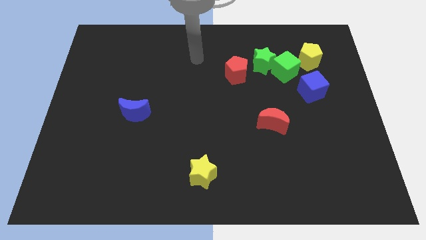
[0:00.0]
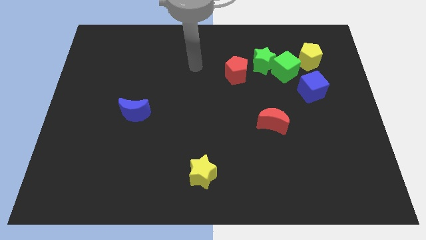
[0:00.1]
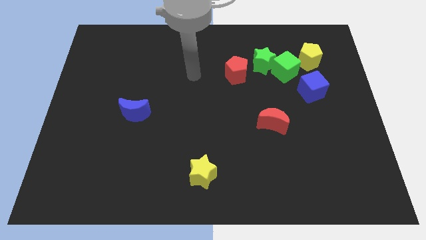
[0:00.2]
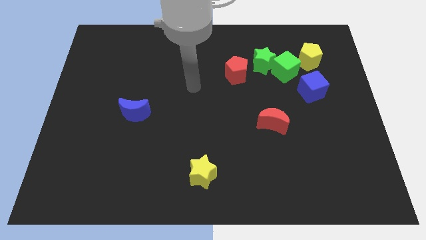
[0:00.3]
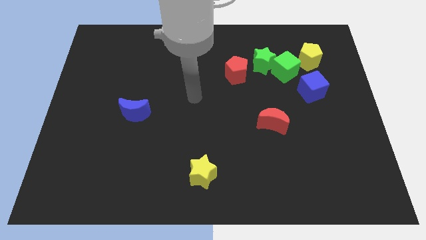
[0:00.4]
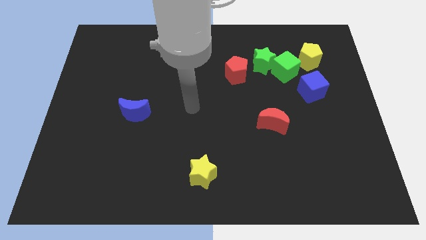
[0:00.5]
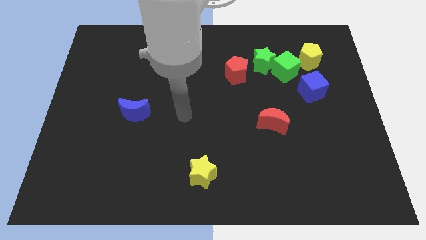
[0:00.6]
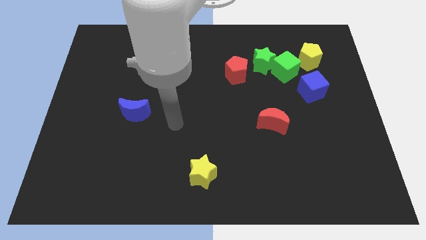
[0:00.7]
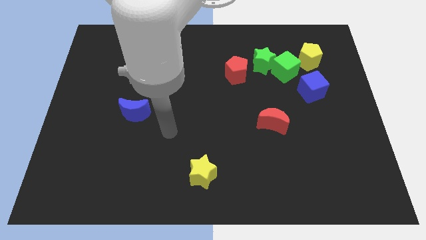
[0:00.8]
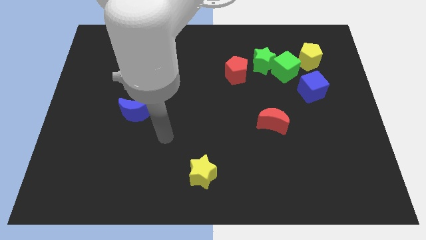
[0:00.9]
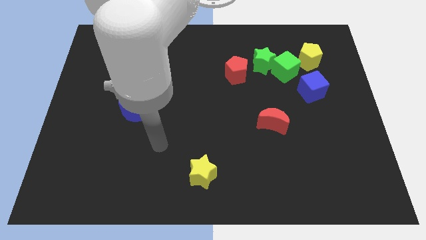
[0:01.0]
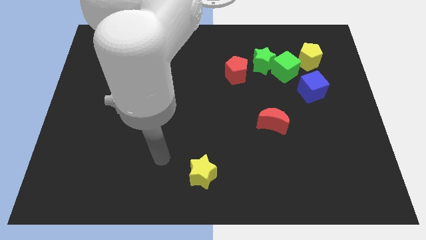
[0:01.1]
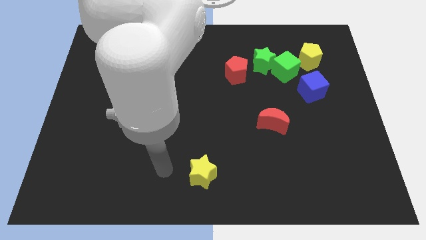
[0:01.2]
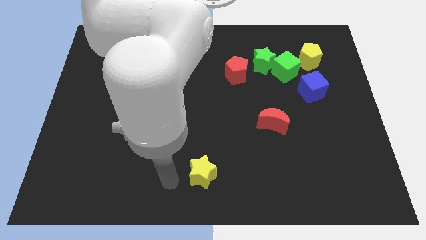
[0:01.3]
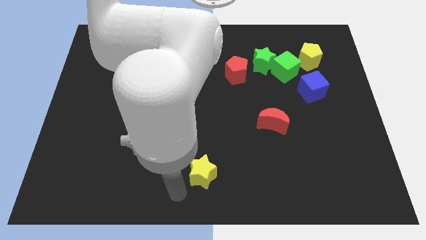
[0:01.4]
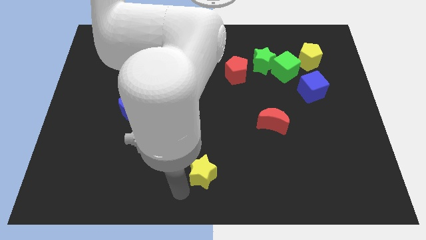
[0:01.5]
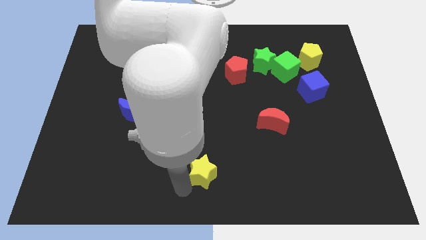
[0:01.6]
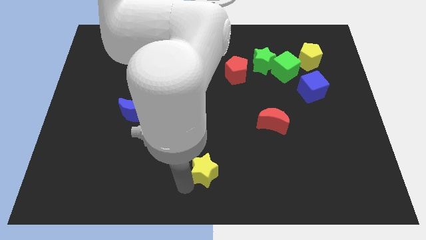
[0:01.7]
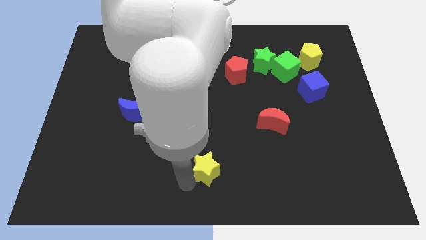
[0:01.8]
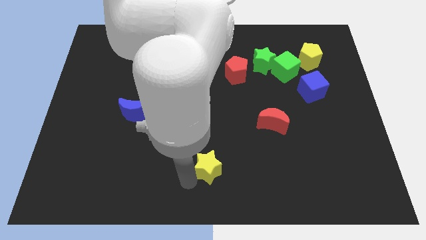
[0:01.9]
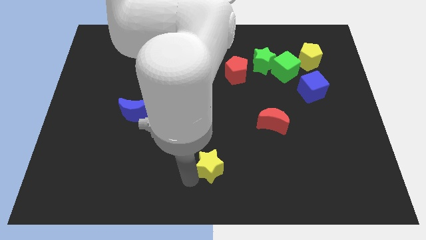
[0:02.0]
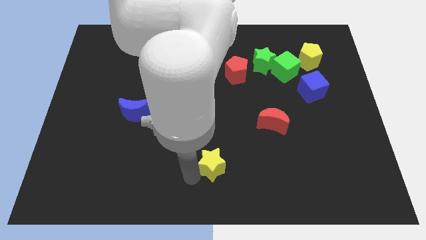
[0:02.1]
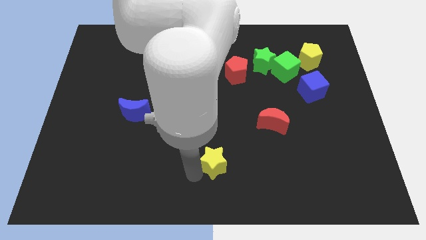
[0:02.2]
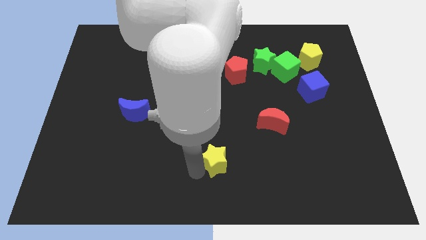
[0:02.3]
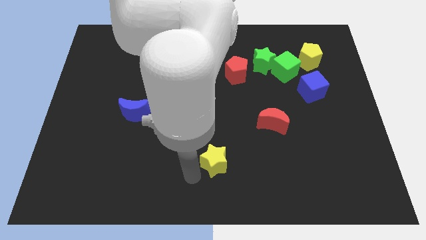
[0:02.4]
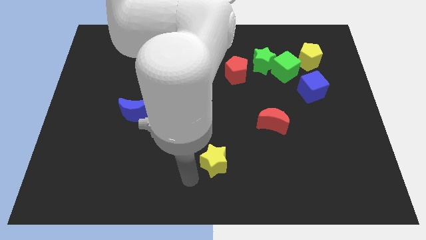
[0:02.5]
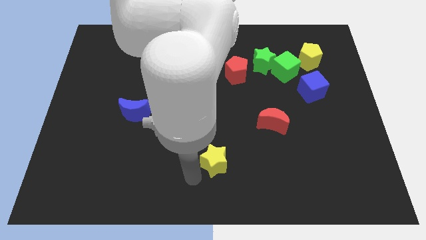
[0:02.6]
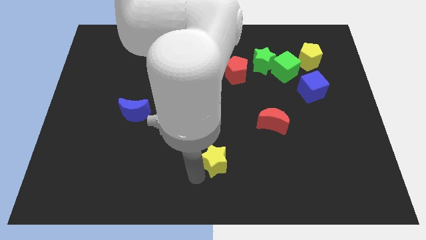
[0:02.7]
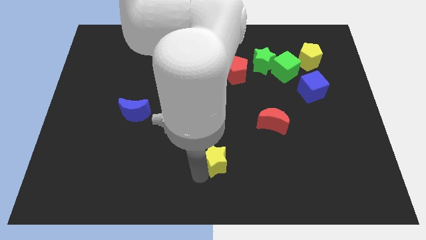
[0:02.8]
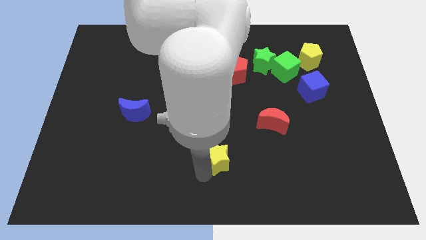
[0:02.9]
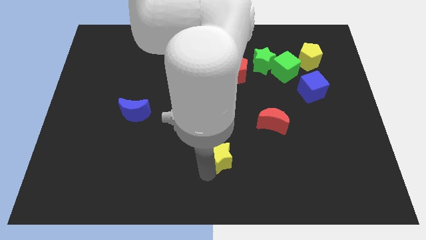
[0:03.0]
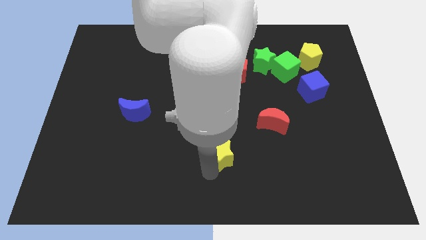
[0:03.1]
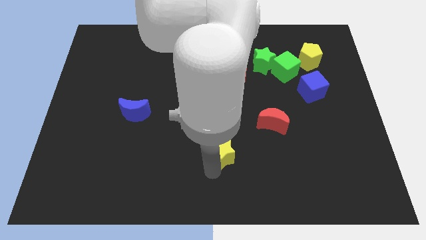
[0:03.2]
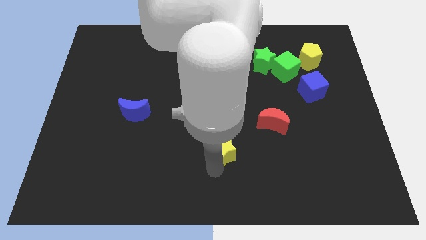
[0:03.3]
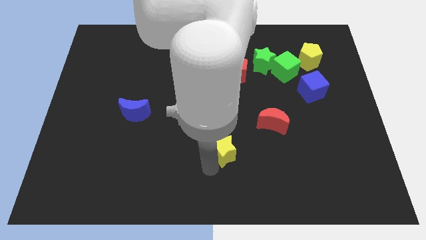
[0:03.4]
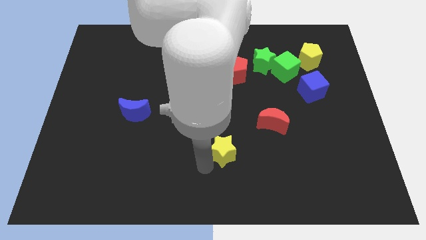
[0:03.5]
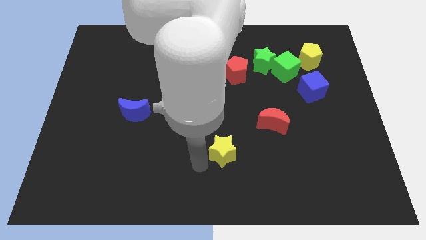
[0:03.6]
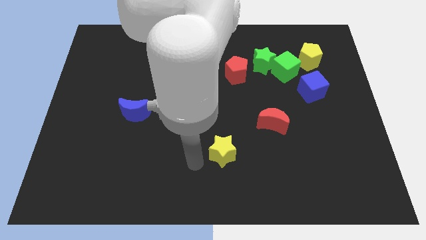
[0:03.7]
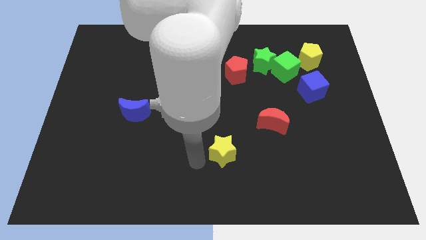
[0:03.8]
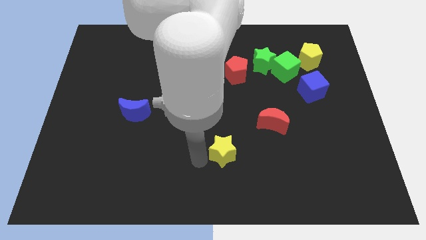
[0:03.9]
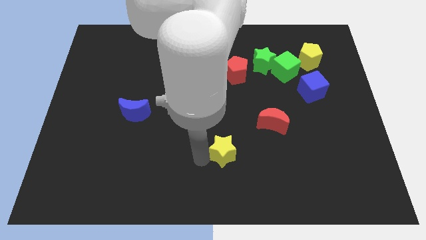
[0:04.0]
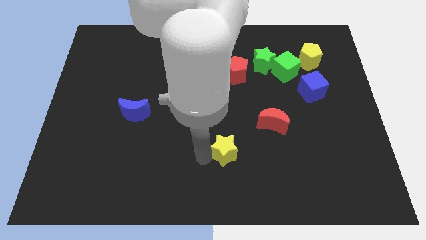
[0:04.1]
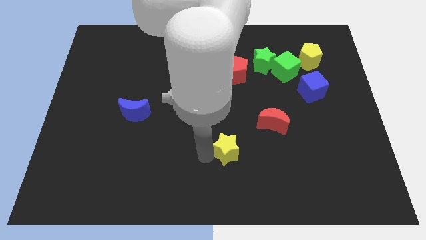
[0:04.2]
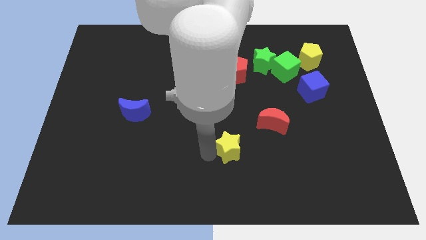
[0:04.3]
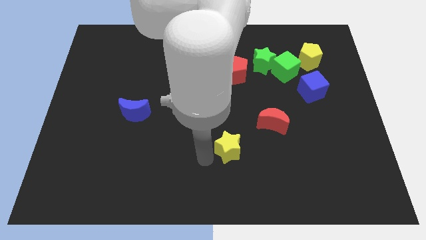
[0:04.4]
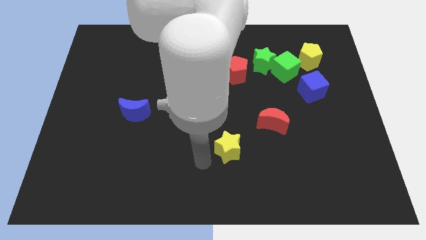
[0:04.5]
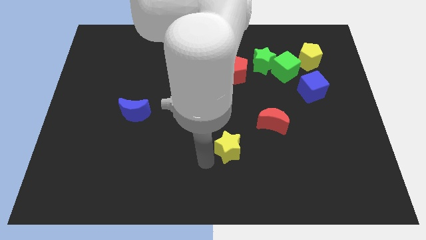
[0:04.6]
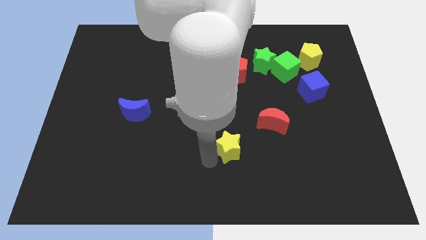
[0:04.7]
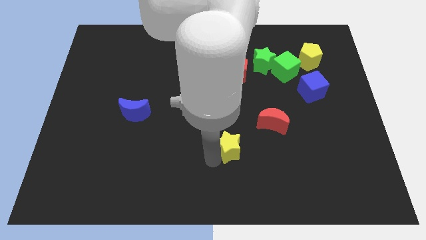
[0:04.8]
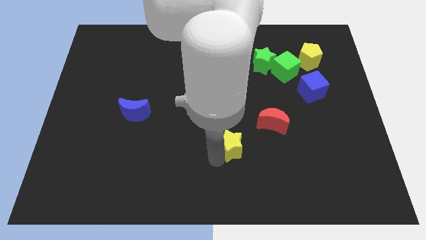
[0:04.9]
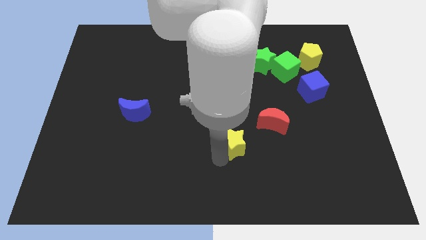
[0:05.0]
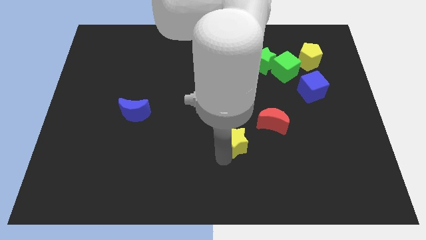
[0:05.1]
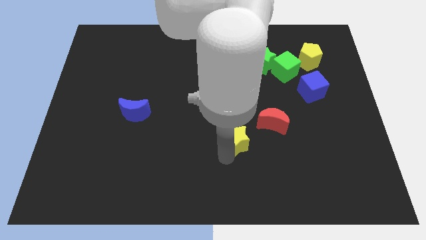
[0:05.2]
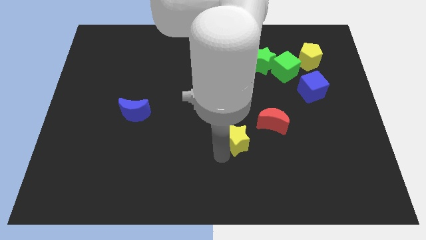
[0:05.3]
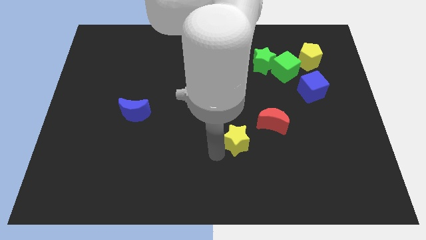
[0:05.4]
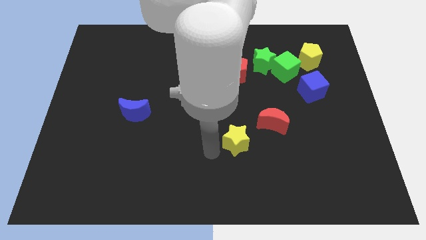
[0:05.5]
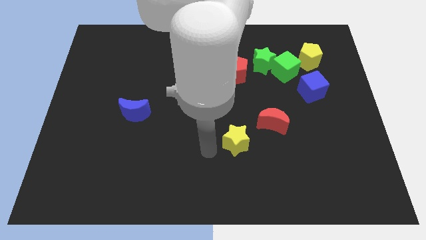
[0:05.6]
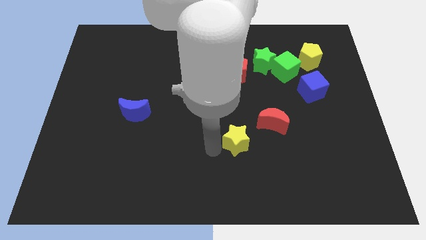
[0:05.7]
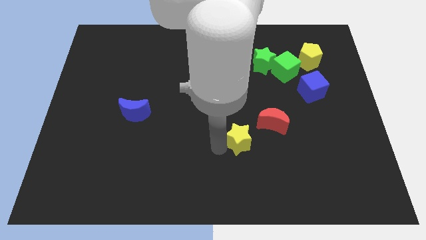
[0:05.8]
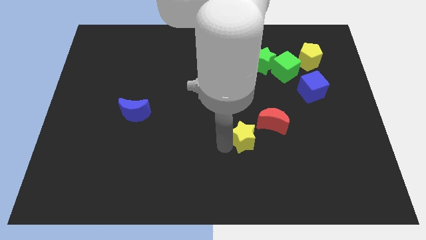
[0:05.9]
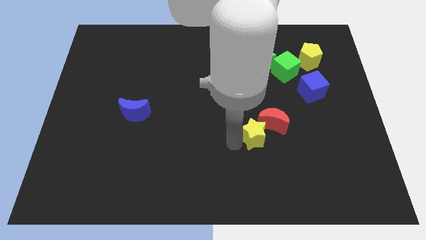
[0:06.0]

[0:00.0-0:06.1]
move the yellow star next to the red moon

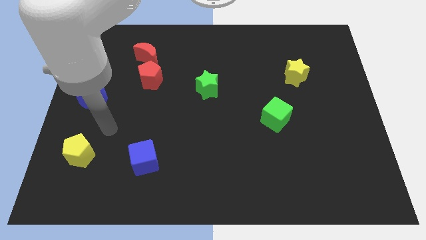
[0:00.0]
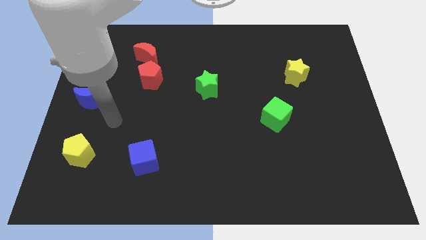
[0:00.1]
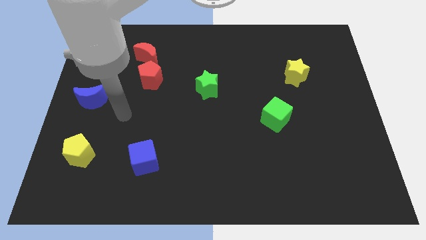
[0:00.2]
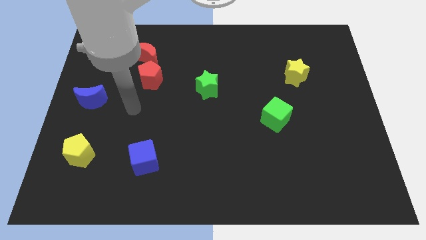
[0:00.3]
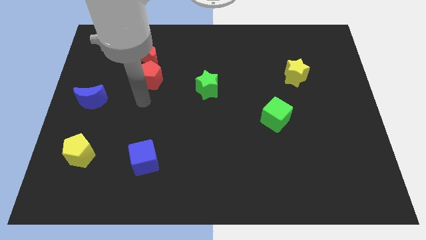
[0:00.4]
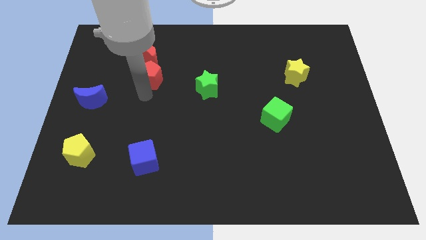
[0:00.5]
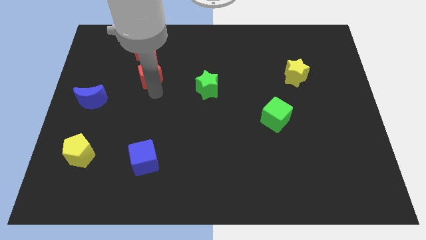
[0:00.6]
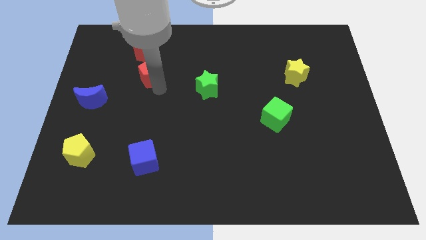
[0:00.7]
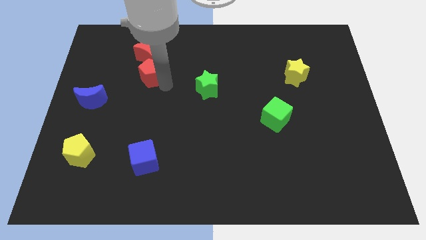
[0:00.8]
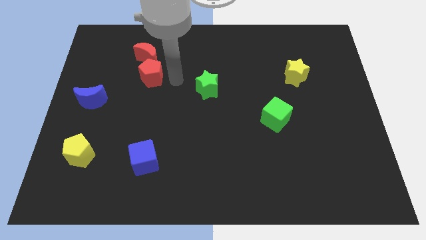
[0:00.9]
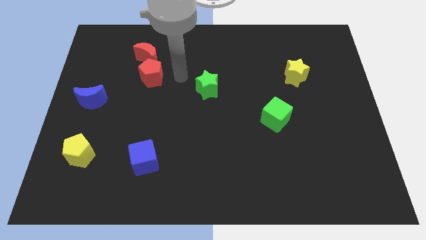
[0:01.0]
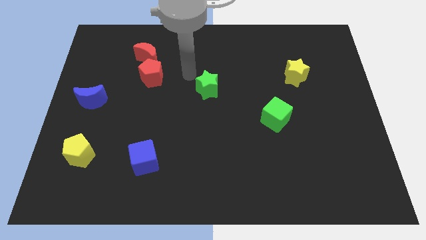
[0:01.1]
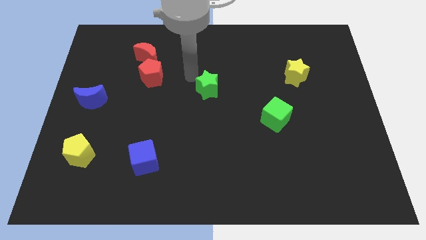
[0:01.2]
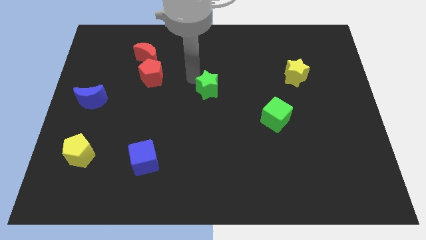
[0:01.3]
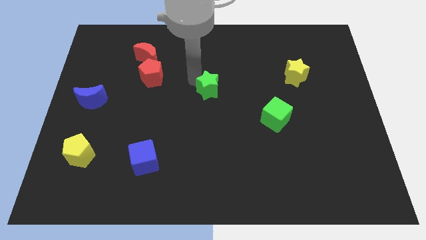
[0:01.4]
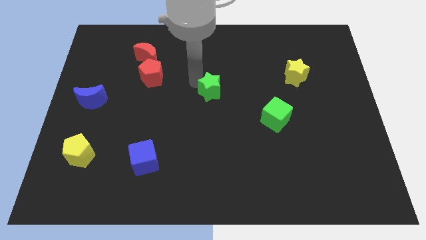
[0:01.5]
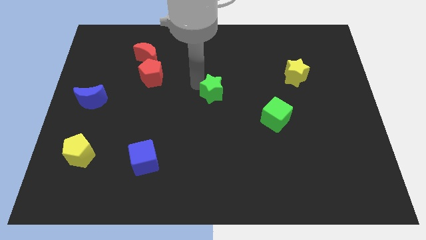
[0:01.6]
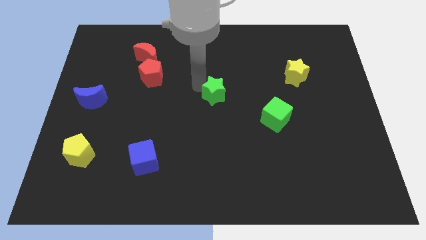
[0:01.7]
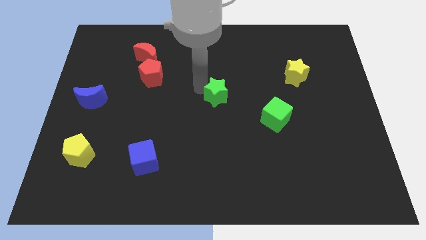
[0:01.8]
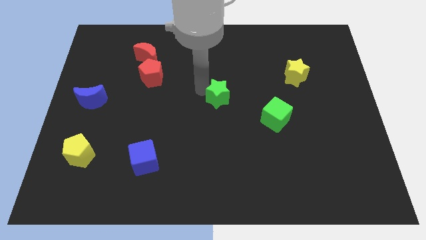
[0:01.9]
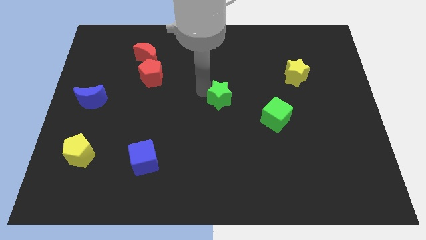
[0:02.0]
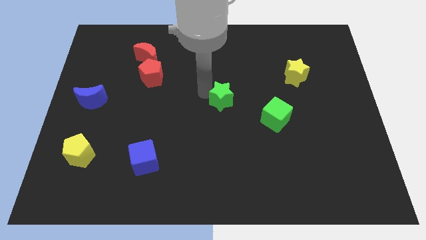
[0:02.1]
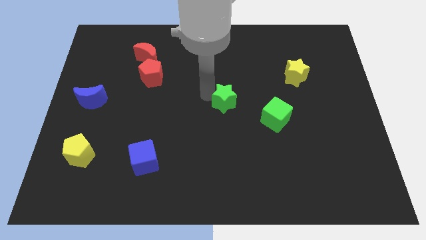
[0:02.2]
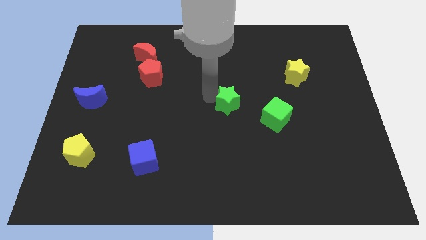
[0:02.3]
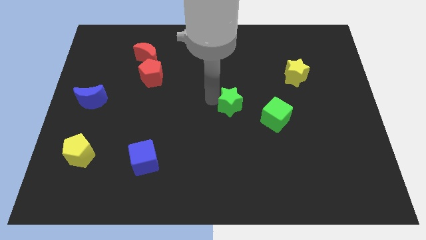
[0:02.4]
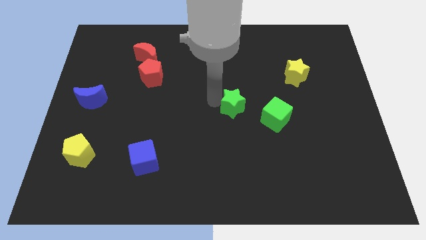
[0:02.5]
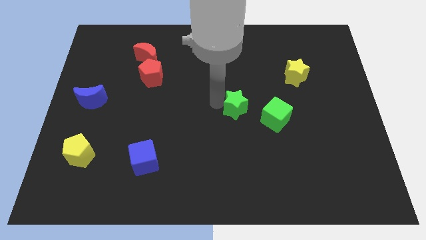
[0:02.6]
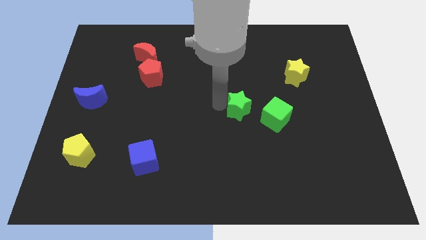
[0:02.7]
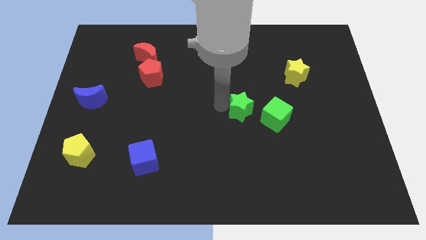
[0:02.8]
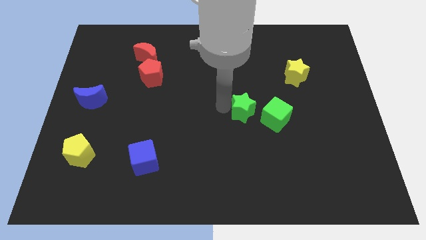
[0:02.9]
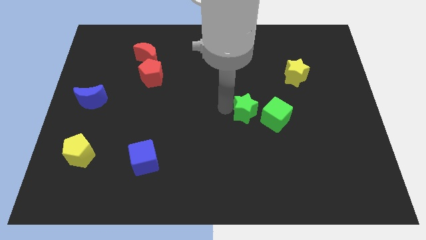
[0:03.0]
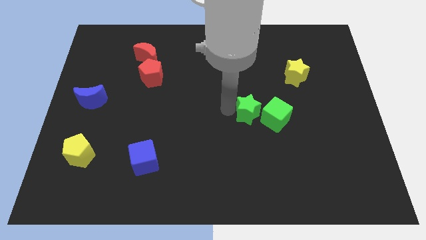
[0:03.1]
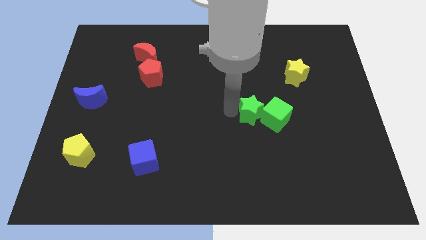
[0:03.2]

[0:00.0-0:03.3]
push the green star close to the green cube
